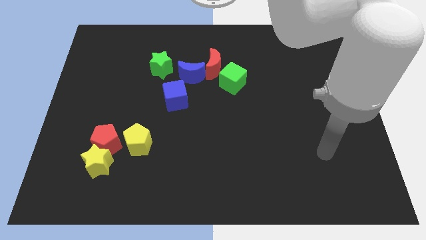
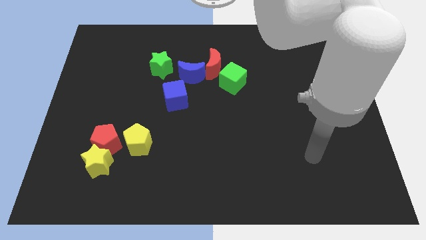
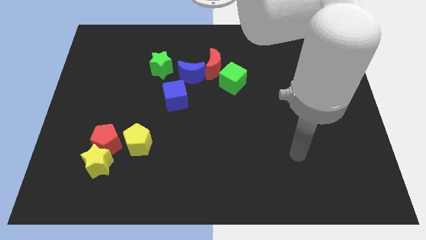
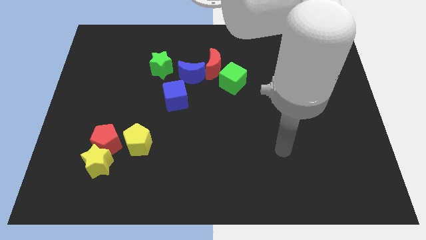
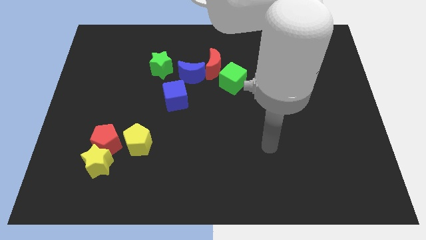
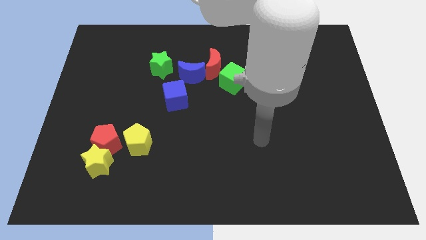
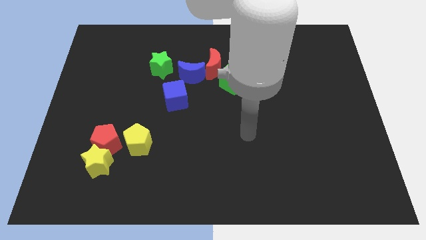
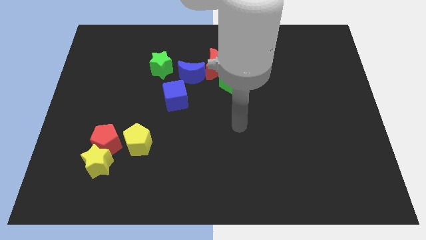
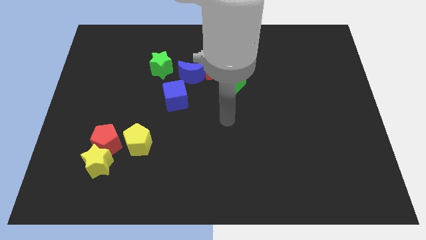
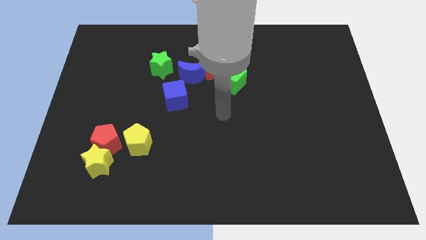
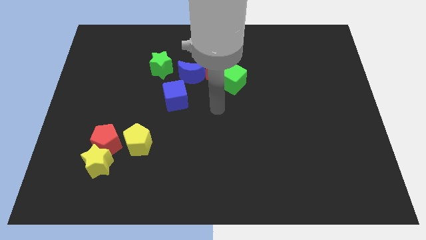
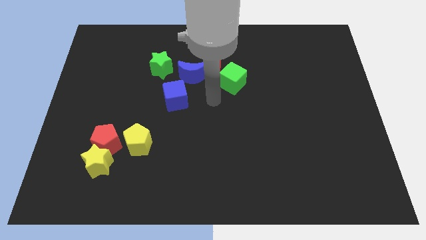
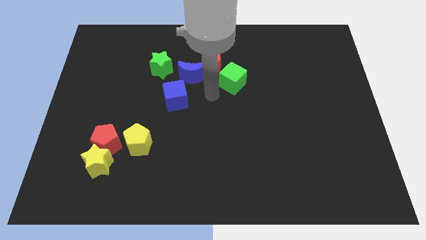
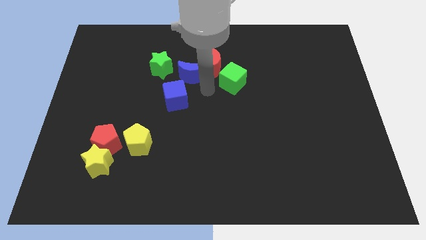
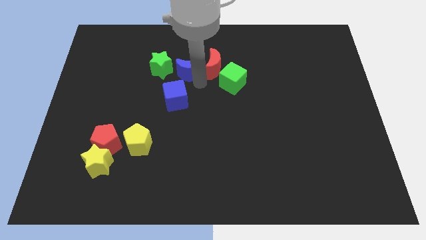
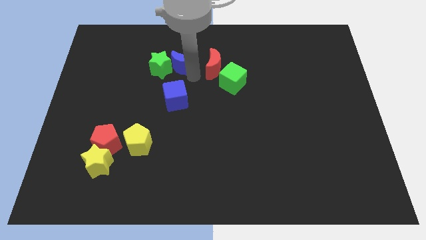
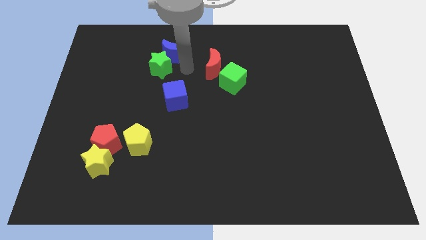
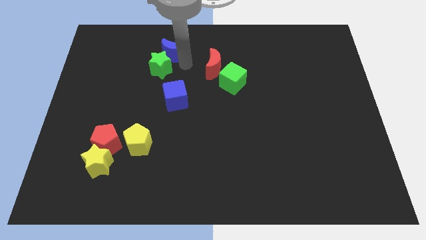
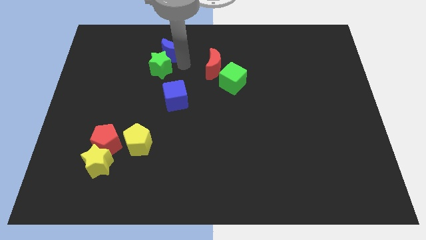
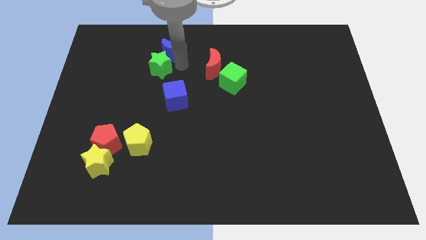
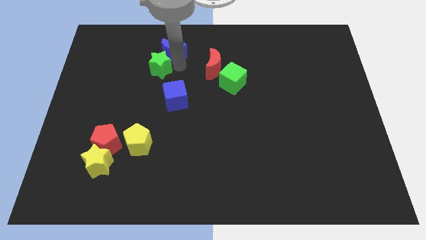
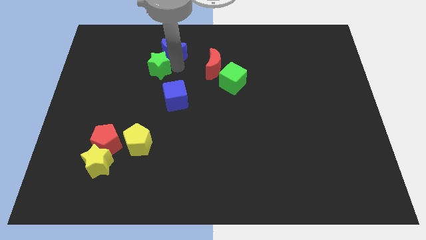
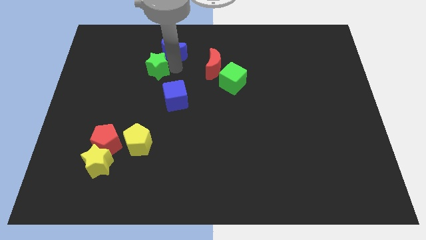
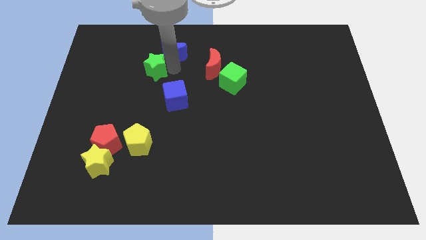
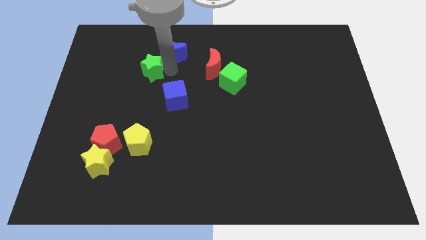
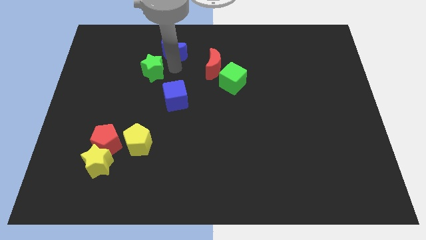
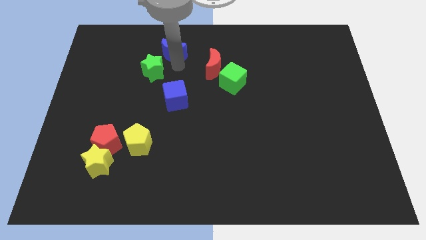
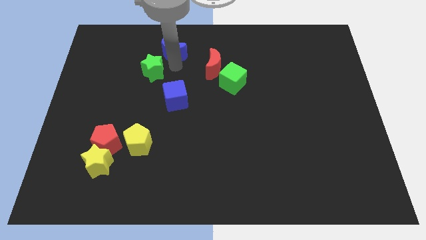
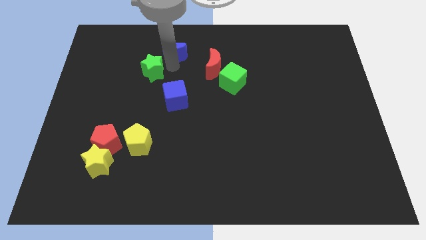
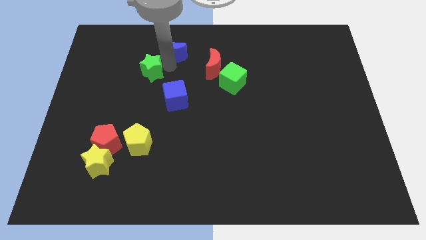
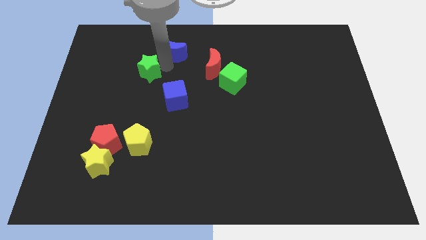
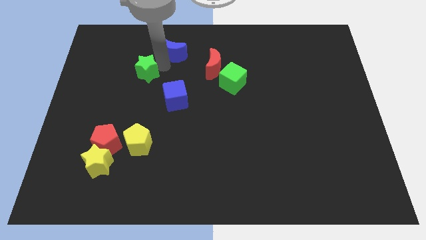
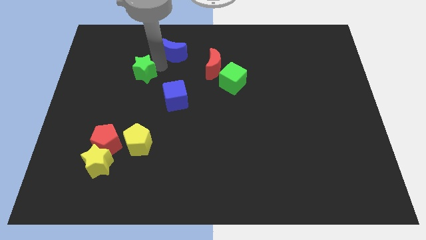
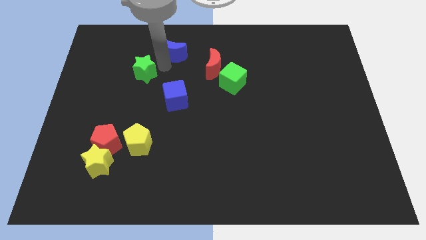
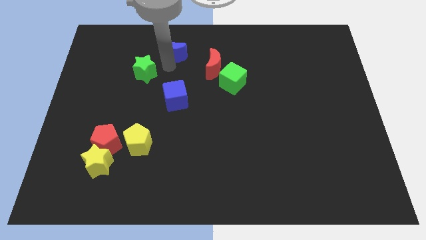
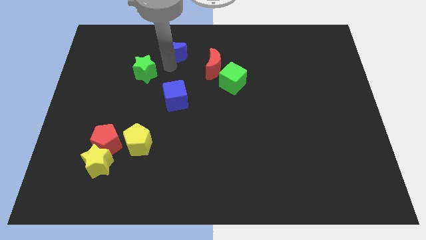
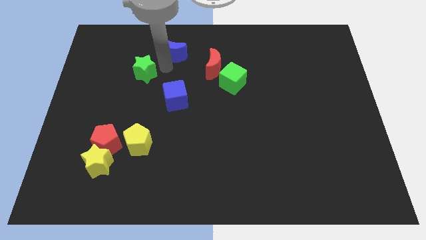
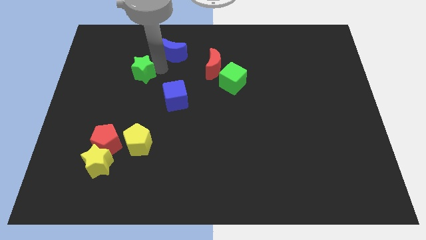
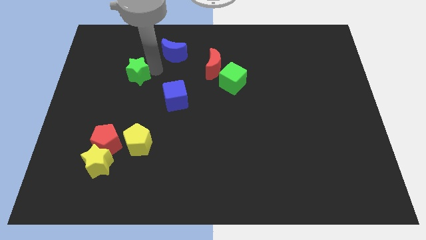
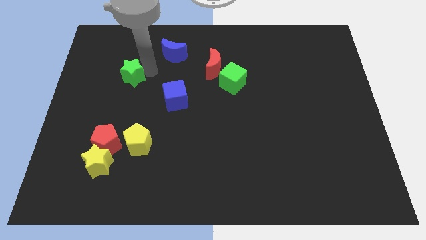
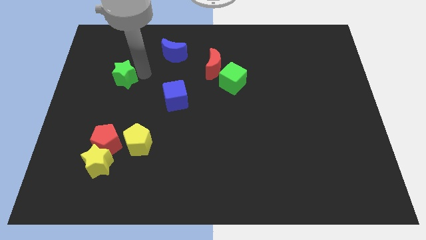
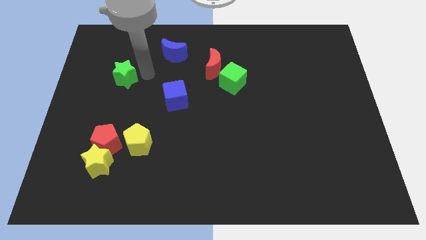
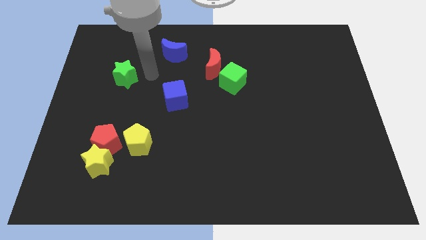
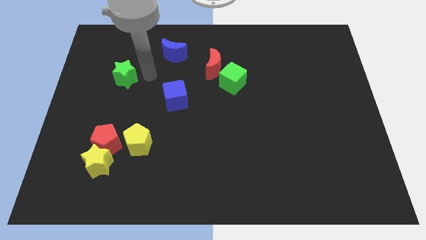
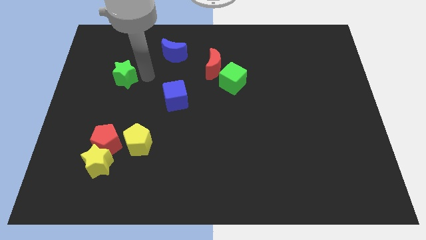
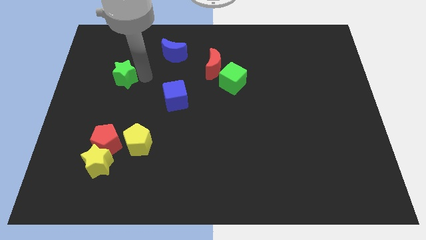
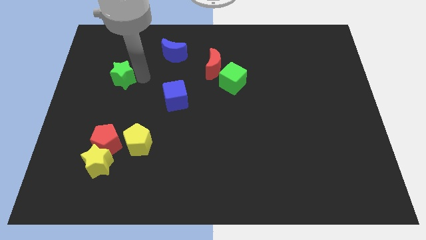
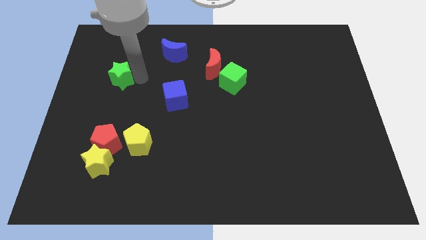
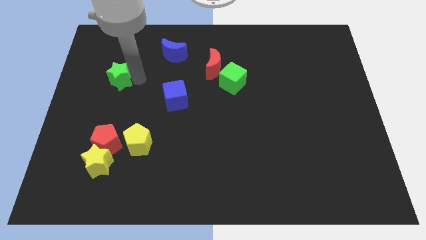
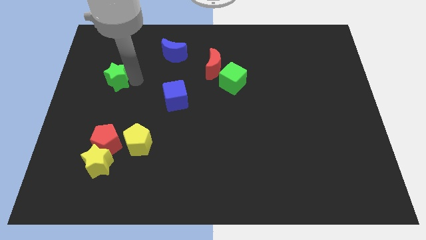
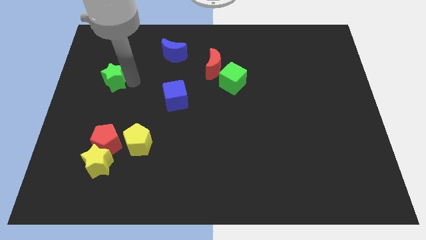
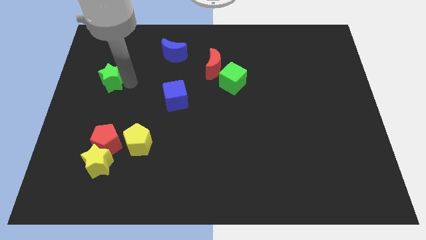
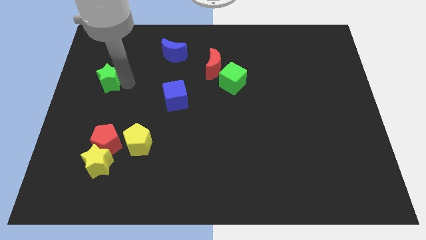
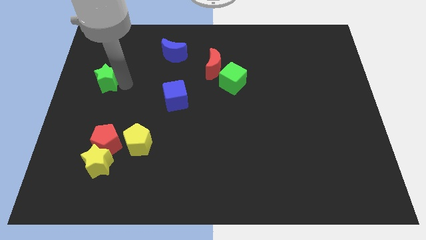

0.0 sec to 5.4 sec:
push the green star to the left side

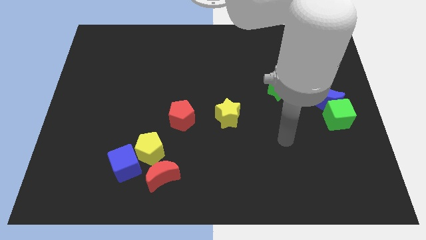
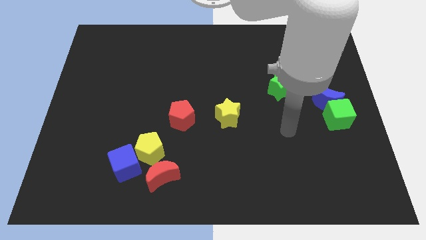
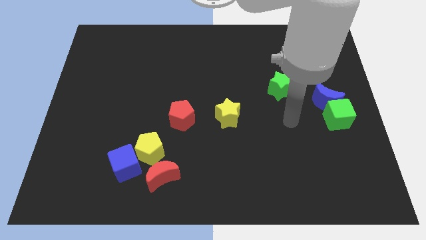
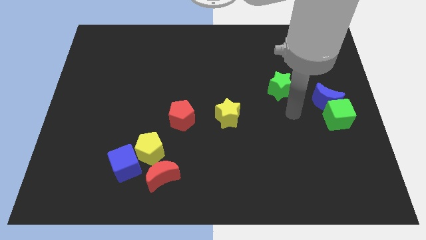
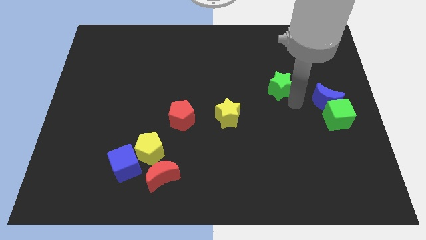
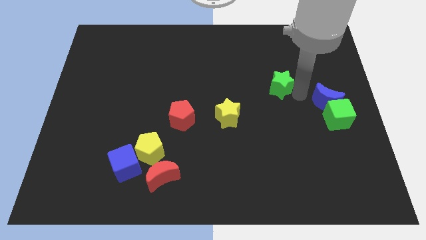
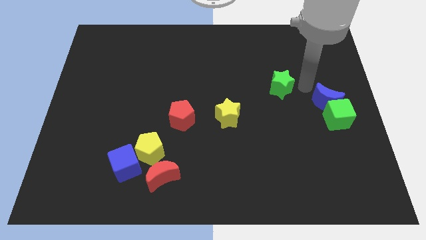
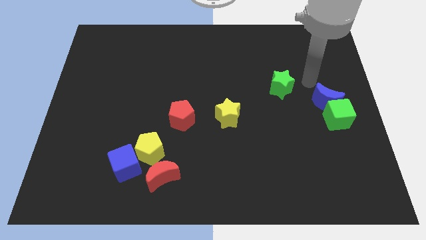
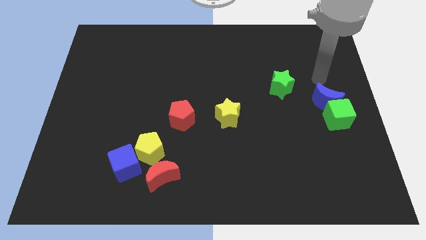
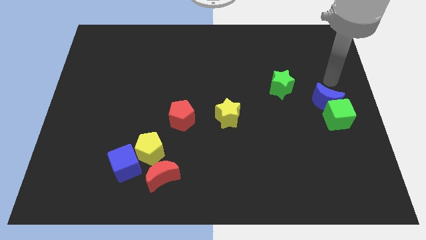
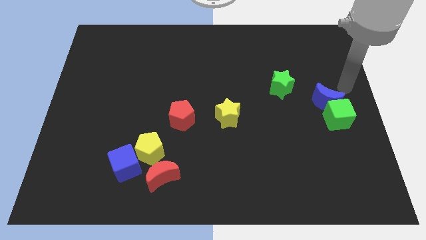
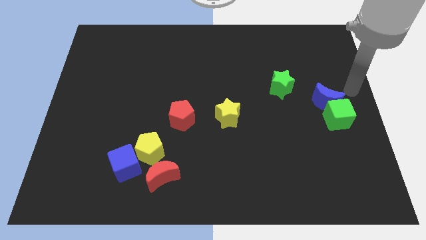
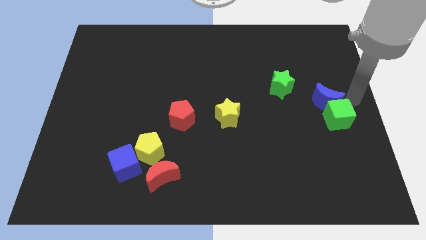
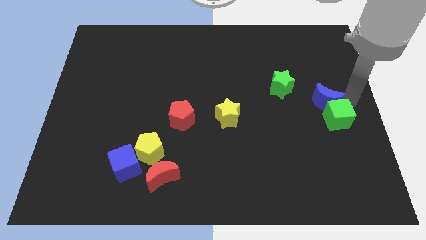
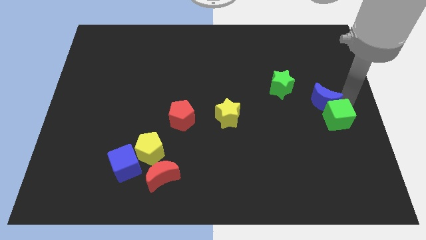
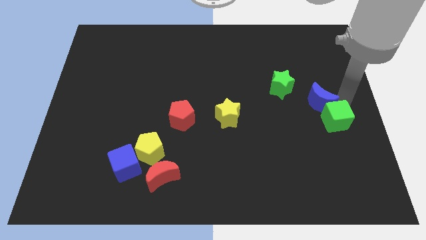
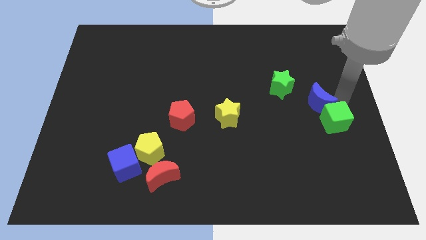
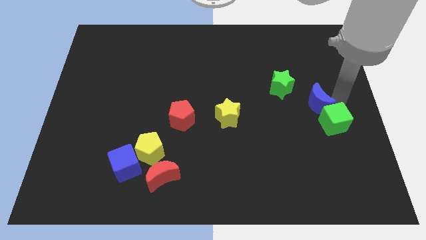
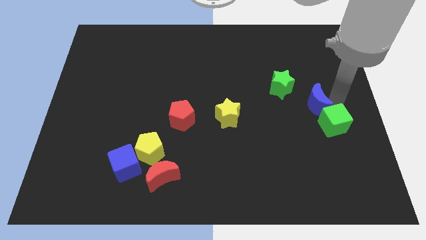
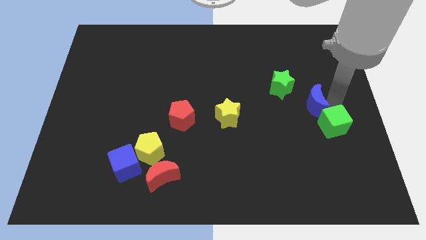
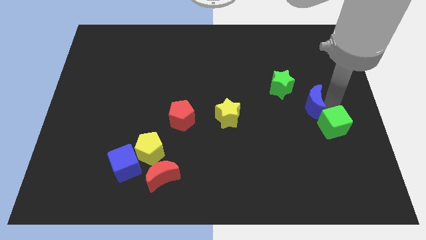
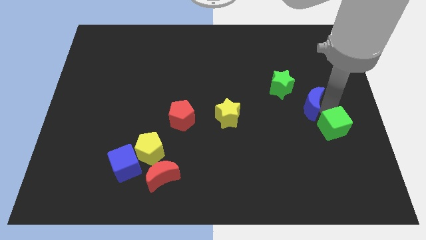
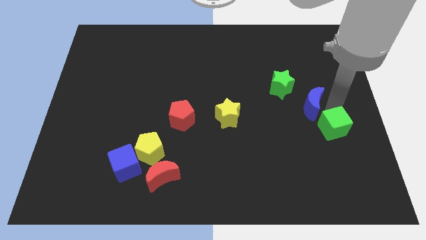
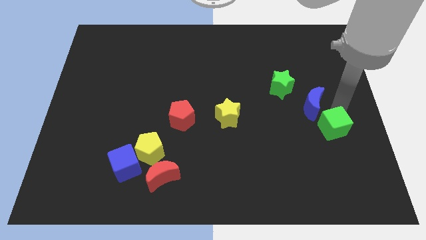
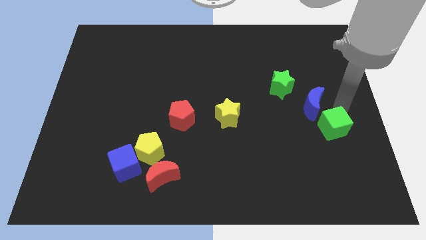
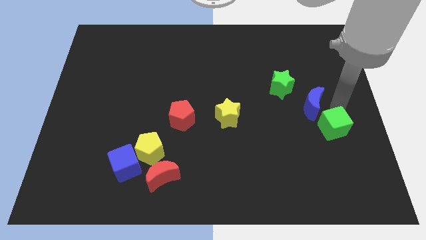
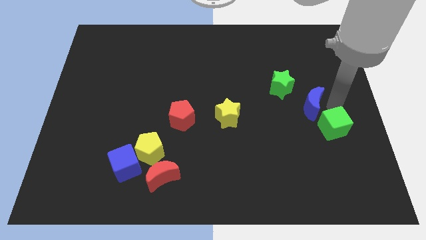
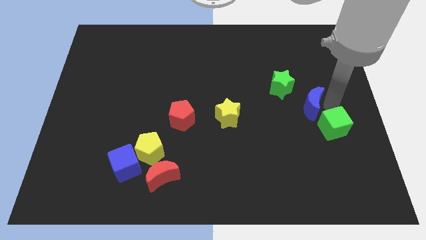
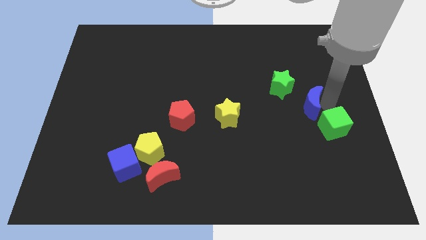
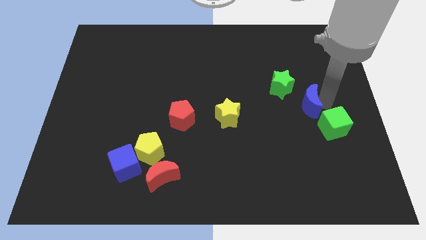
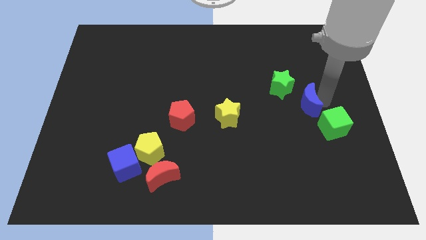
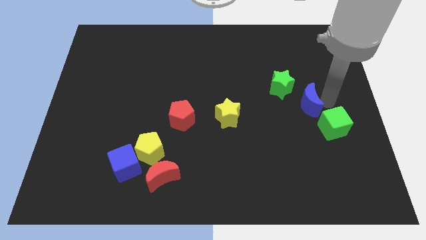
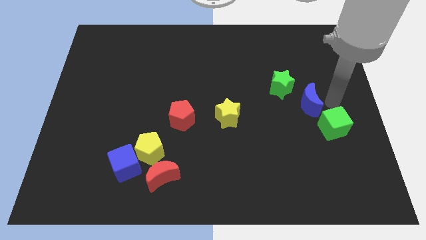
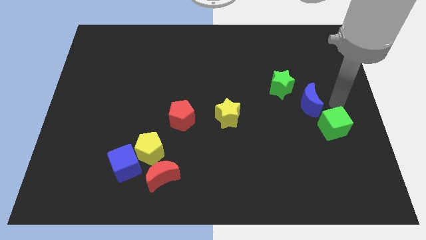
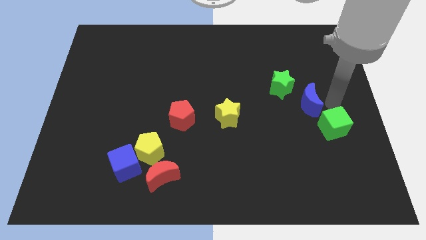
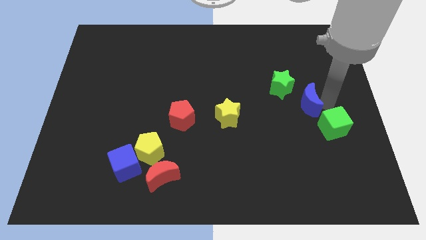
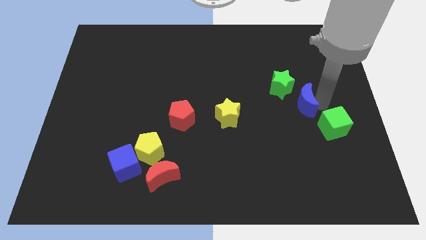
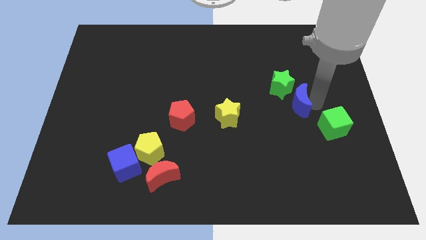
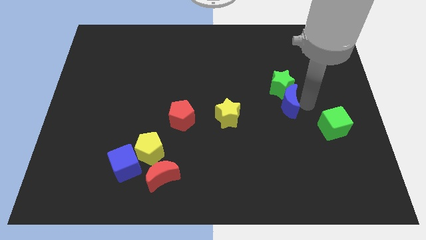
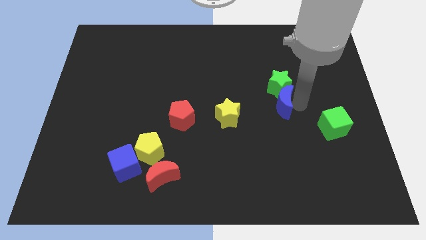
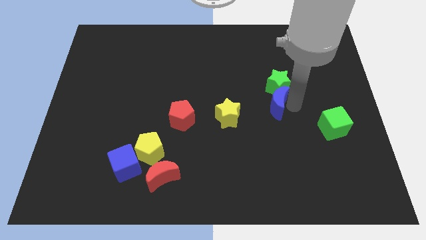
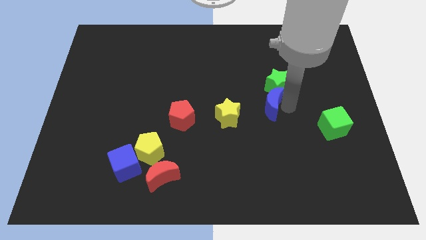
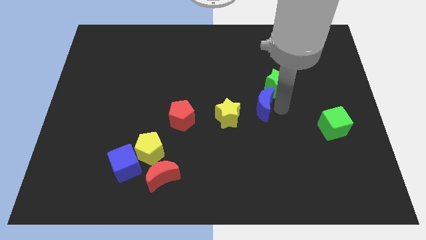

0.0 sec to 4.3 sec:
slide the blue moon to the middle of the board
